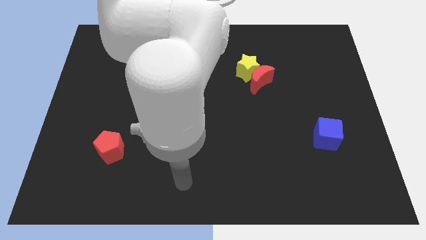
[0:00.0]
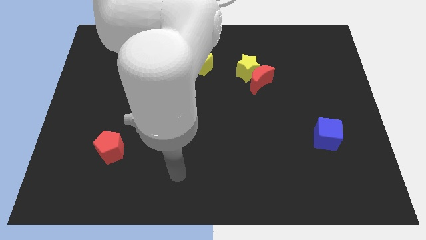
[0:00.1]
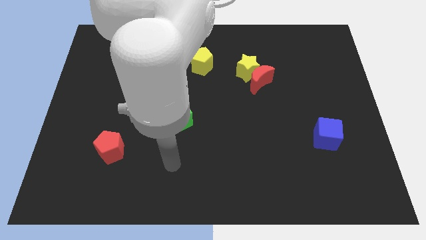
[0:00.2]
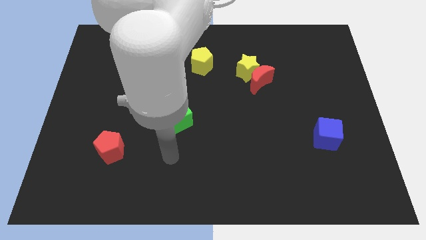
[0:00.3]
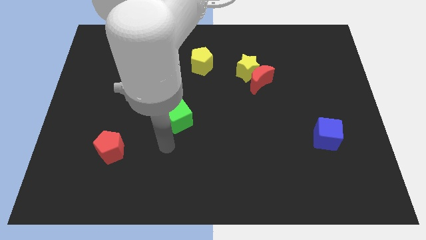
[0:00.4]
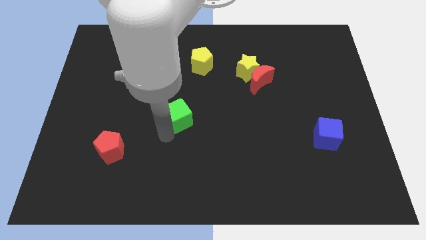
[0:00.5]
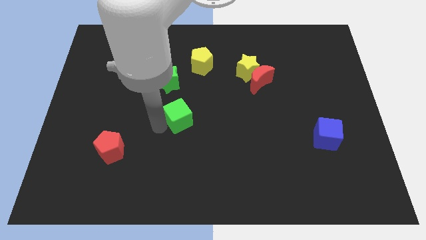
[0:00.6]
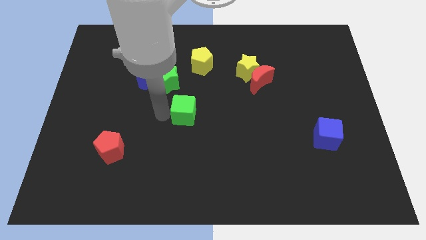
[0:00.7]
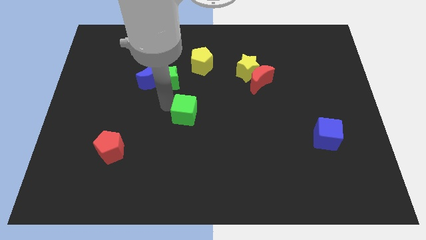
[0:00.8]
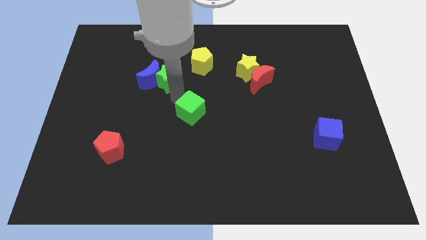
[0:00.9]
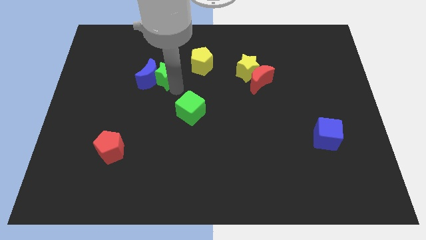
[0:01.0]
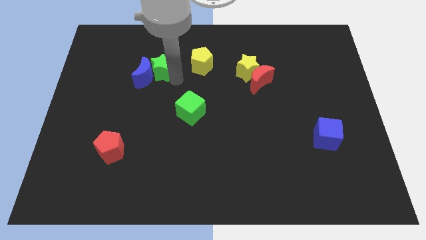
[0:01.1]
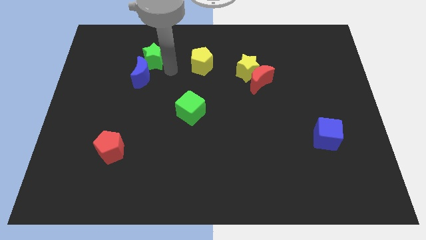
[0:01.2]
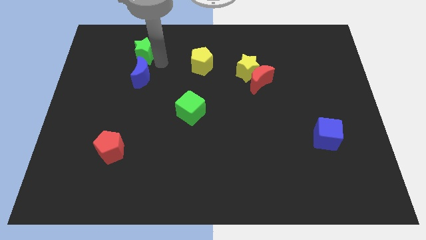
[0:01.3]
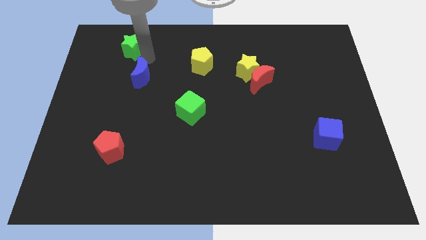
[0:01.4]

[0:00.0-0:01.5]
separate the blue moon from the green star

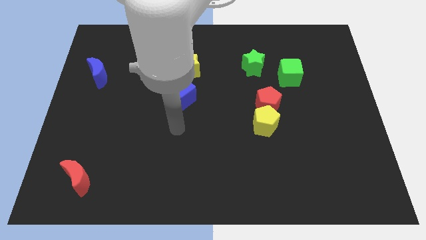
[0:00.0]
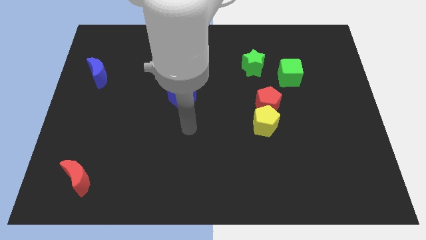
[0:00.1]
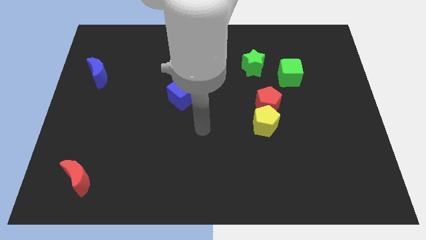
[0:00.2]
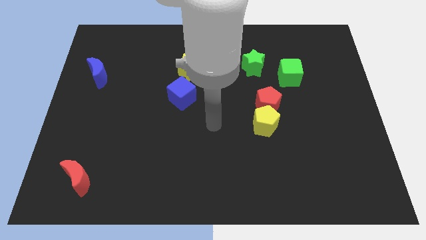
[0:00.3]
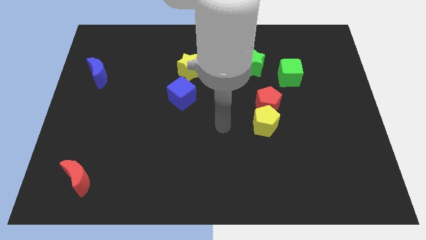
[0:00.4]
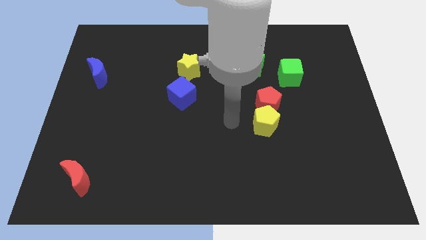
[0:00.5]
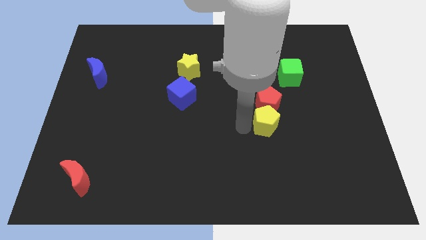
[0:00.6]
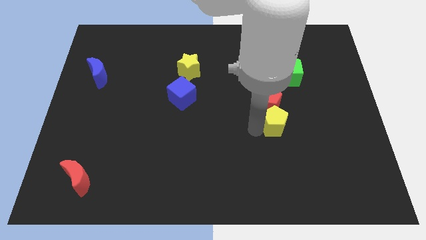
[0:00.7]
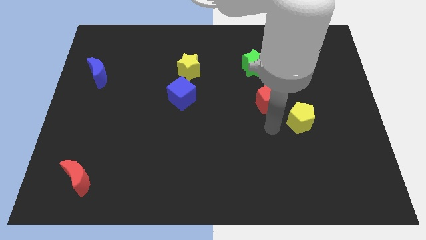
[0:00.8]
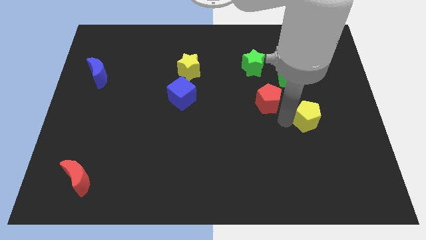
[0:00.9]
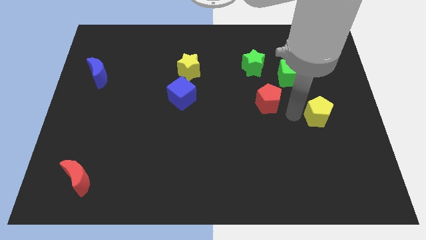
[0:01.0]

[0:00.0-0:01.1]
pull the red pentagon apart from the yellow pentagon

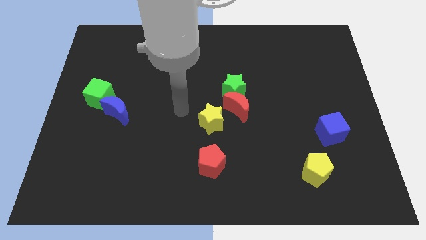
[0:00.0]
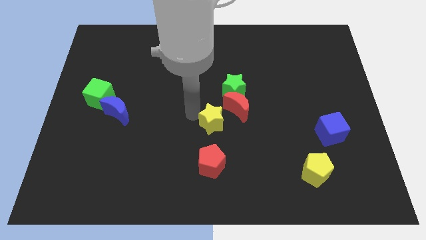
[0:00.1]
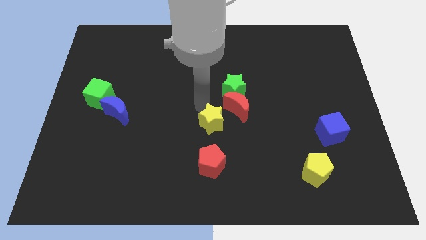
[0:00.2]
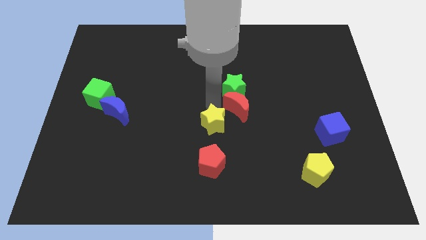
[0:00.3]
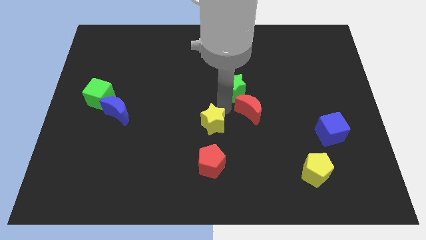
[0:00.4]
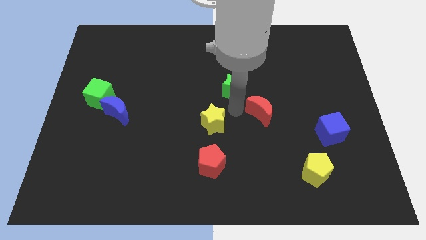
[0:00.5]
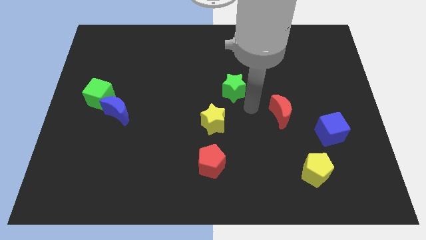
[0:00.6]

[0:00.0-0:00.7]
move the green star away from the red moon

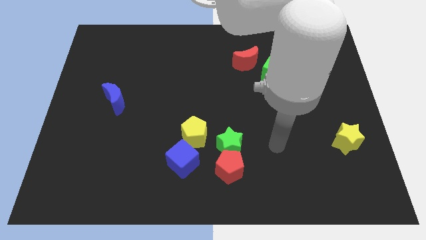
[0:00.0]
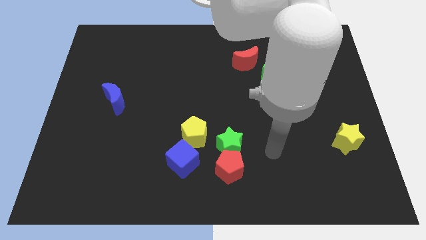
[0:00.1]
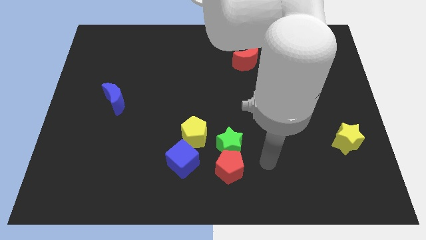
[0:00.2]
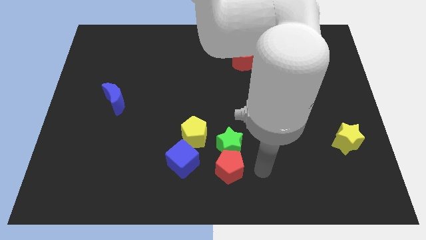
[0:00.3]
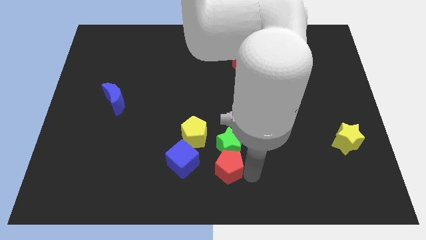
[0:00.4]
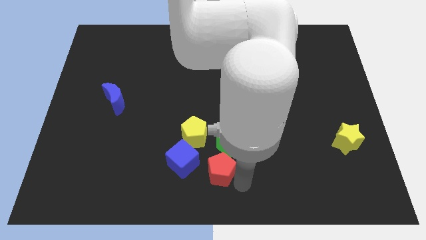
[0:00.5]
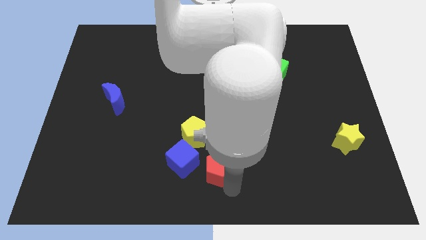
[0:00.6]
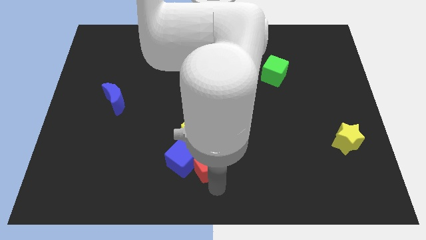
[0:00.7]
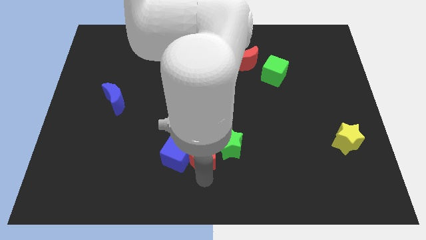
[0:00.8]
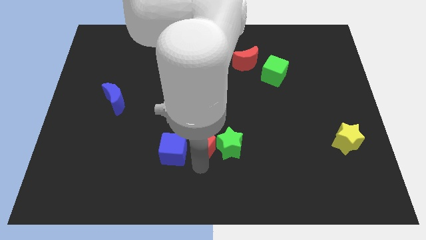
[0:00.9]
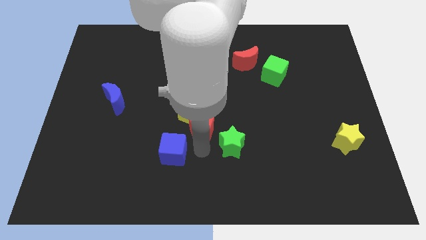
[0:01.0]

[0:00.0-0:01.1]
pull the green star apart from the red pentagon and yellow pentagon

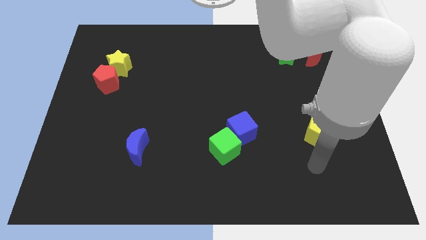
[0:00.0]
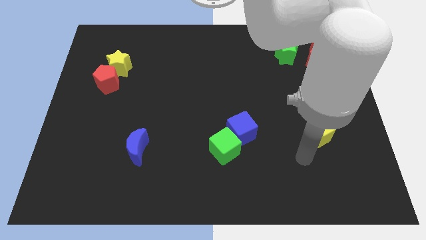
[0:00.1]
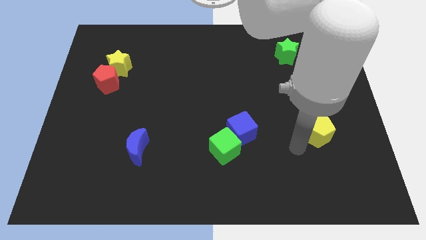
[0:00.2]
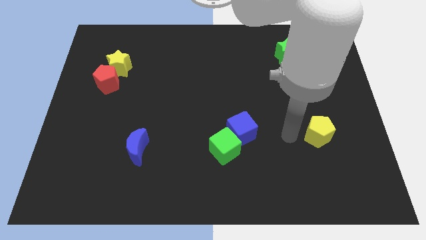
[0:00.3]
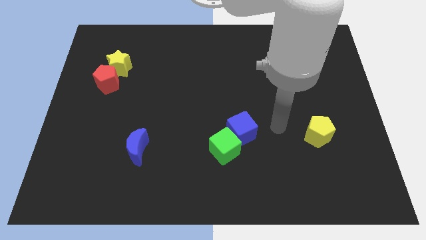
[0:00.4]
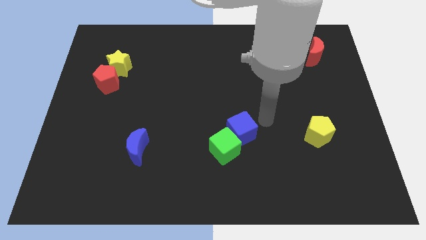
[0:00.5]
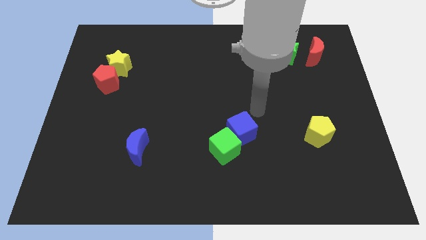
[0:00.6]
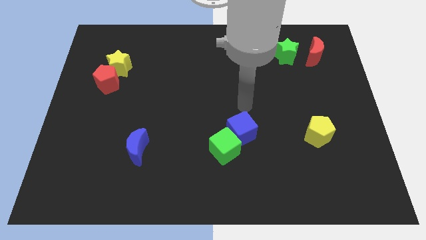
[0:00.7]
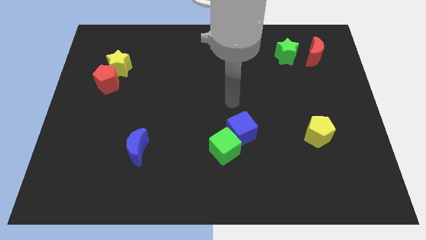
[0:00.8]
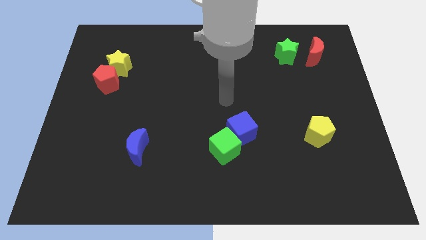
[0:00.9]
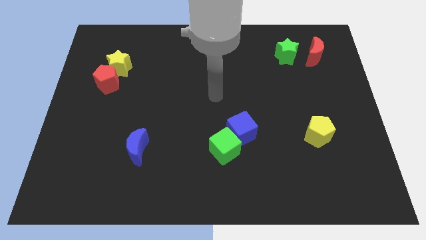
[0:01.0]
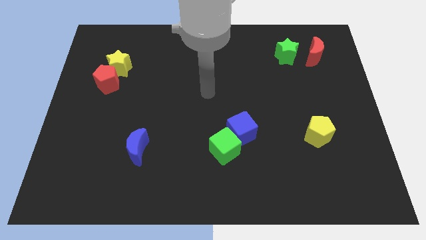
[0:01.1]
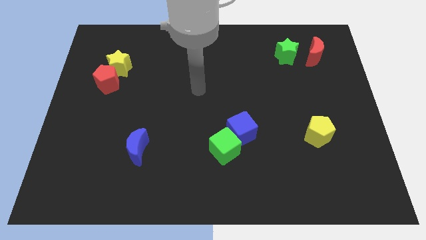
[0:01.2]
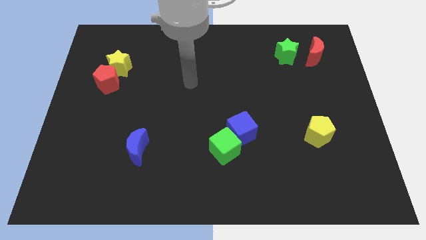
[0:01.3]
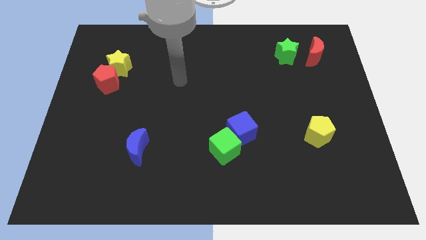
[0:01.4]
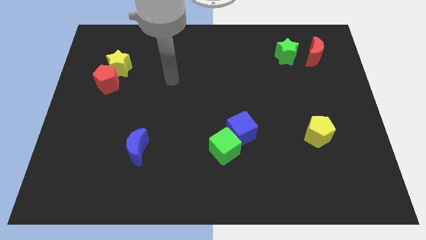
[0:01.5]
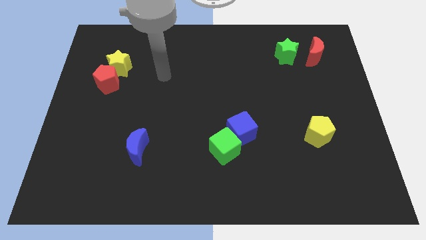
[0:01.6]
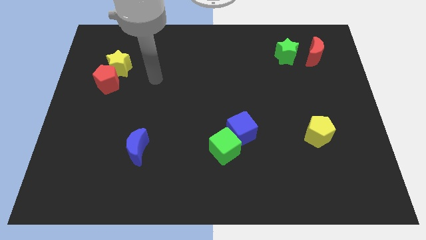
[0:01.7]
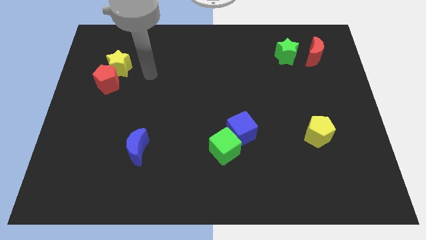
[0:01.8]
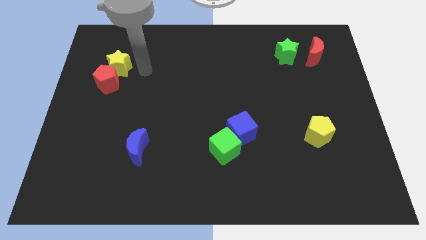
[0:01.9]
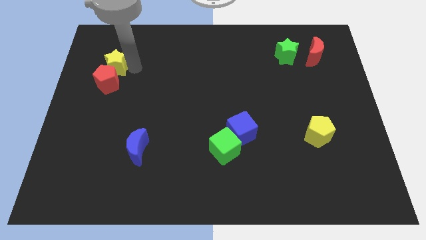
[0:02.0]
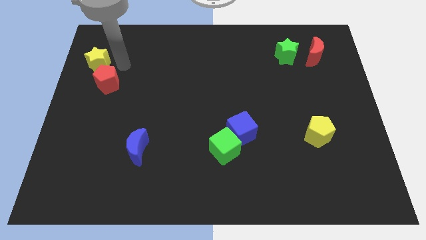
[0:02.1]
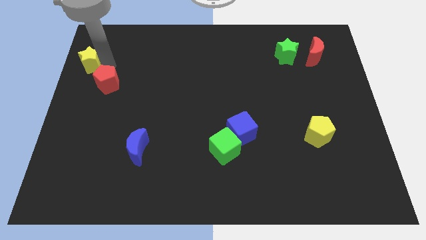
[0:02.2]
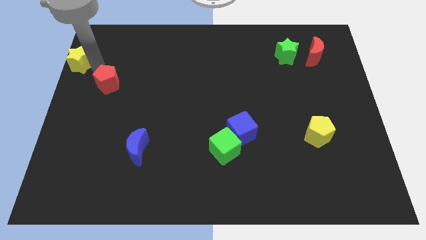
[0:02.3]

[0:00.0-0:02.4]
separate the red pentagon from the yellow star

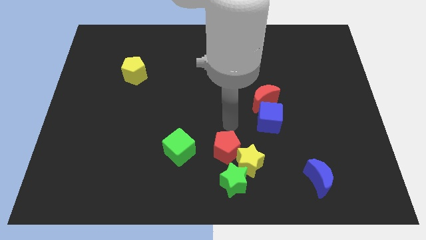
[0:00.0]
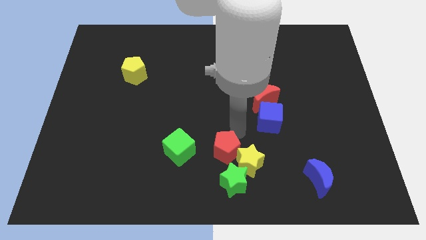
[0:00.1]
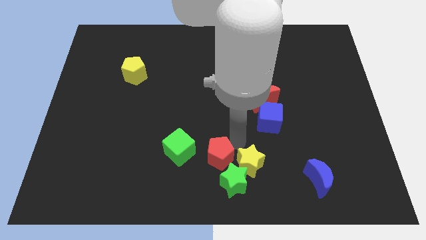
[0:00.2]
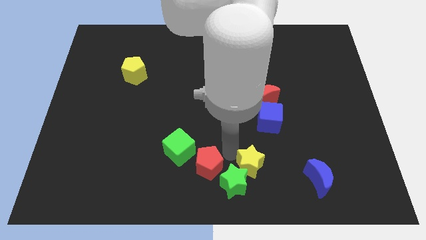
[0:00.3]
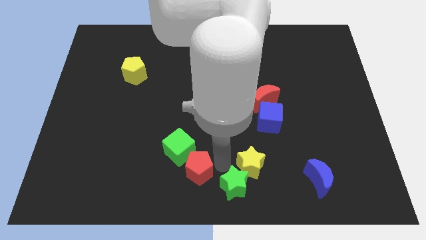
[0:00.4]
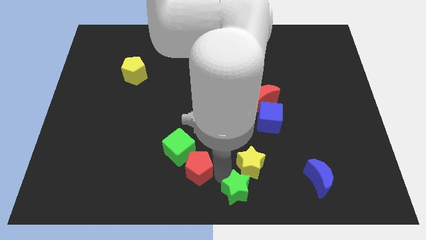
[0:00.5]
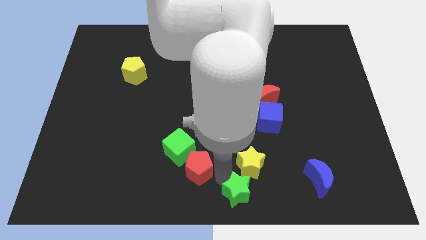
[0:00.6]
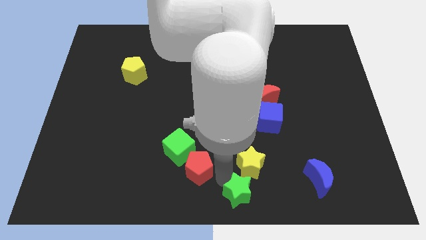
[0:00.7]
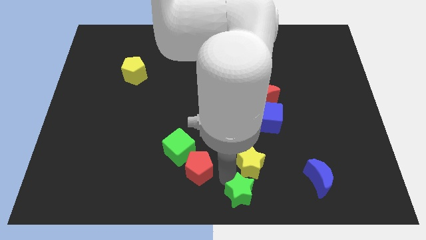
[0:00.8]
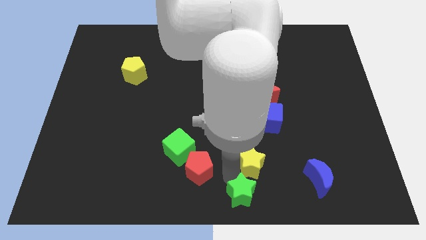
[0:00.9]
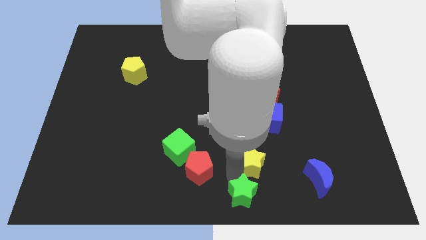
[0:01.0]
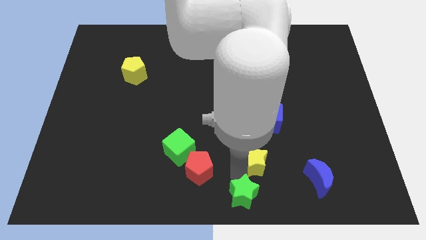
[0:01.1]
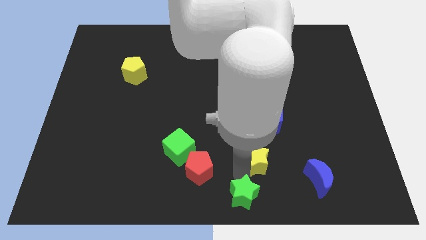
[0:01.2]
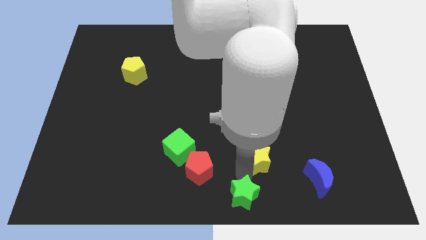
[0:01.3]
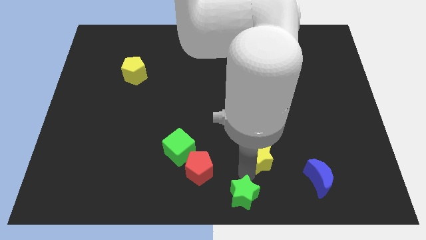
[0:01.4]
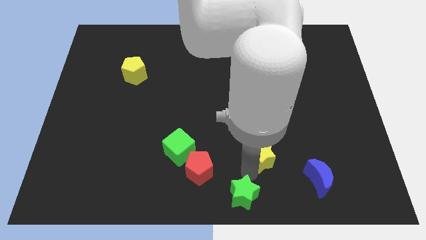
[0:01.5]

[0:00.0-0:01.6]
separate the yellow star from the red pentagon and green star

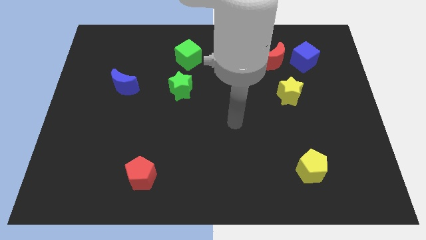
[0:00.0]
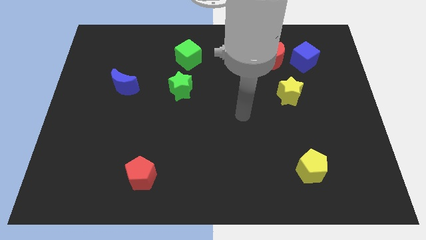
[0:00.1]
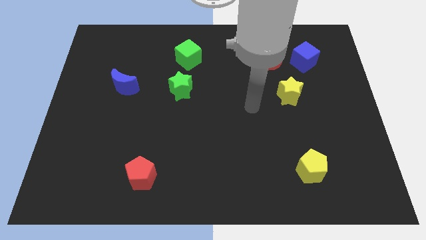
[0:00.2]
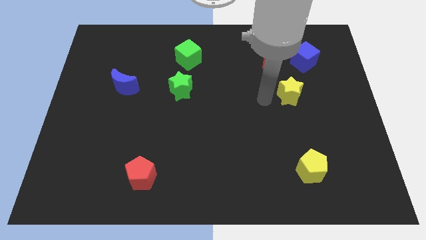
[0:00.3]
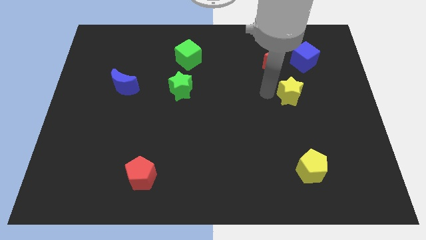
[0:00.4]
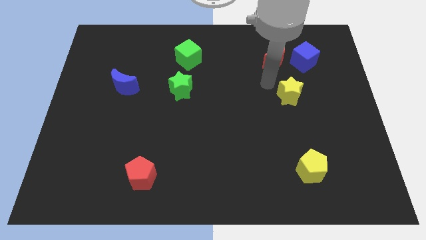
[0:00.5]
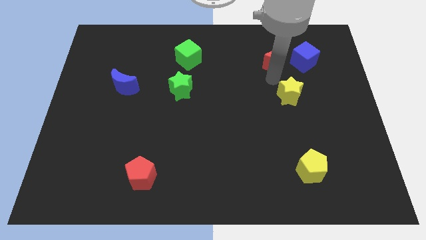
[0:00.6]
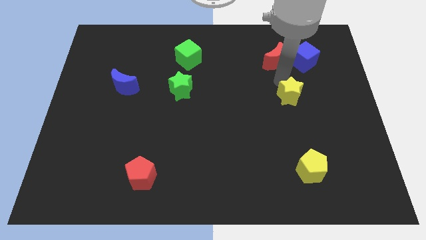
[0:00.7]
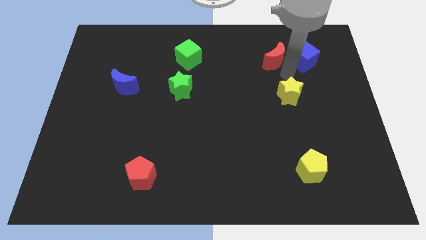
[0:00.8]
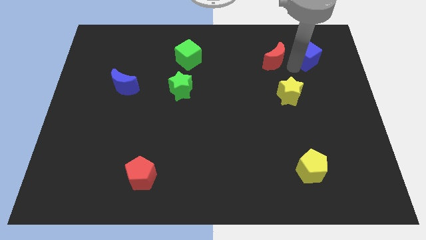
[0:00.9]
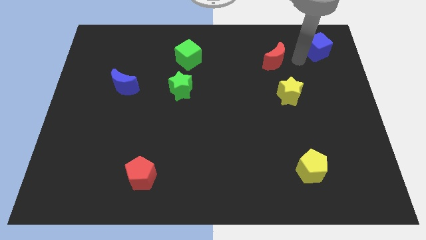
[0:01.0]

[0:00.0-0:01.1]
separate the red moon from the blue cube
